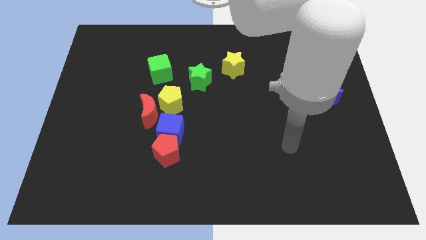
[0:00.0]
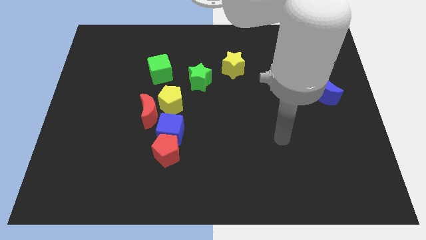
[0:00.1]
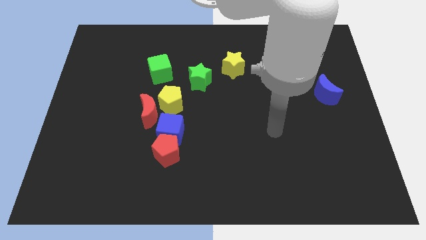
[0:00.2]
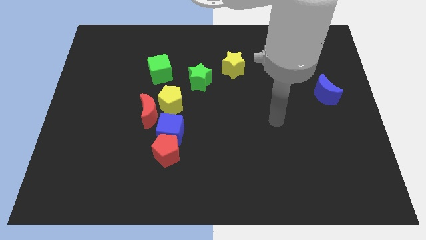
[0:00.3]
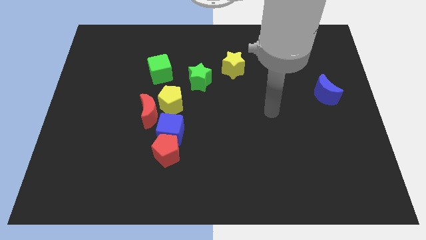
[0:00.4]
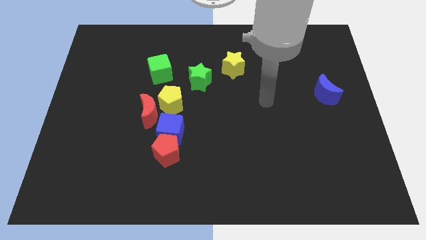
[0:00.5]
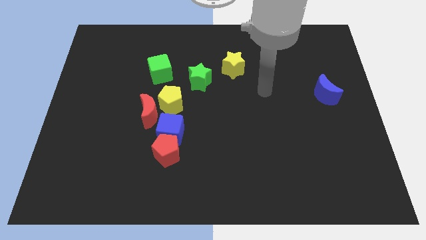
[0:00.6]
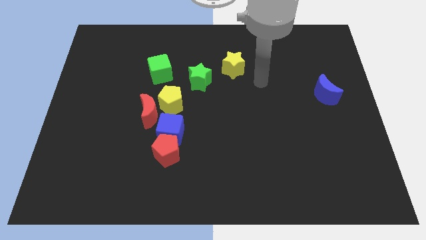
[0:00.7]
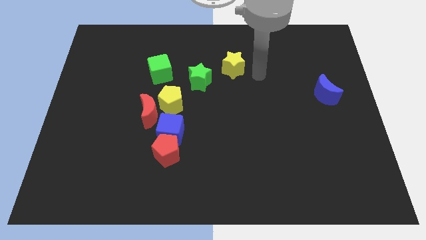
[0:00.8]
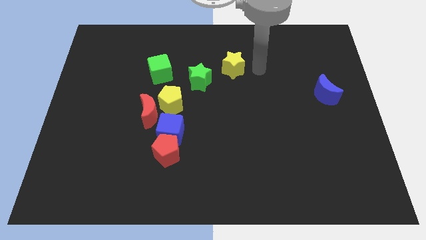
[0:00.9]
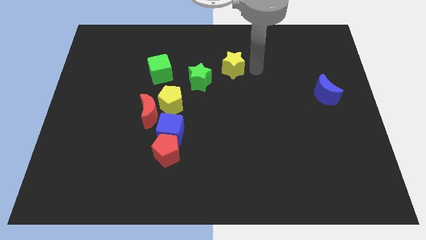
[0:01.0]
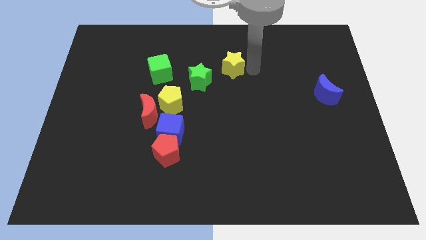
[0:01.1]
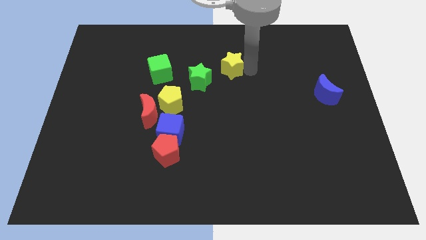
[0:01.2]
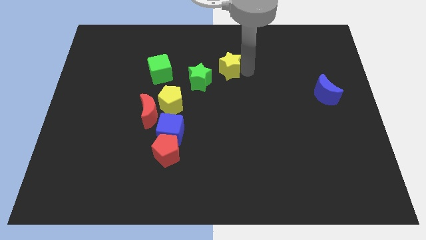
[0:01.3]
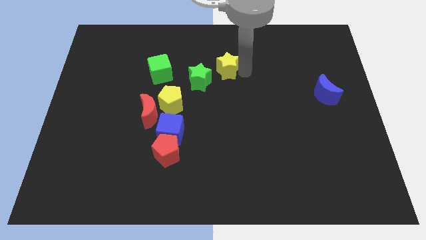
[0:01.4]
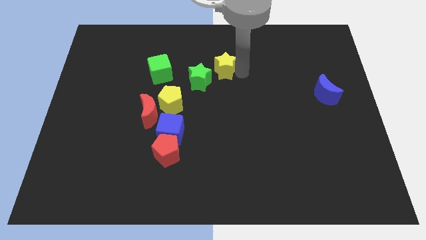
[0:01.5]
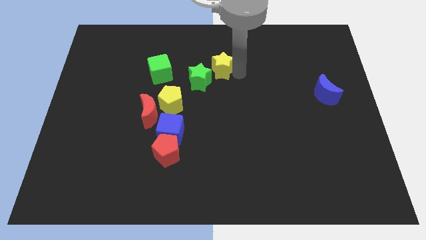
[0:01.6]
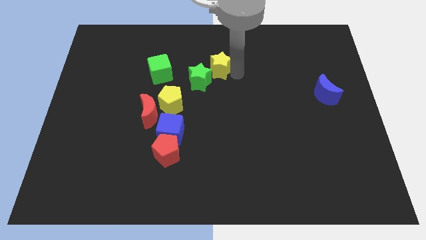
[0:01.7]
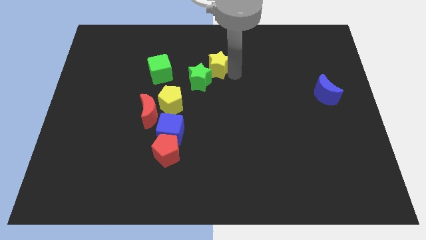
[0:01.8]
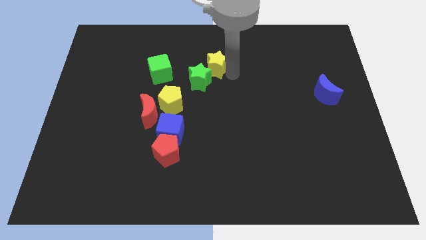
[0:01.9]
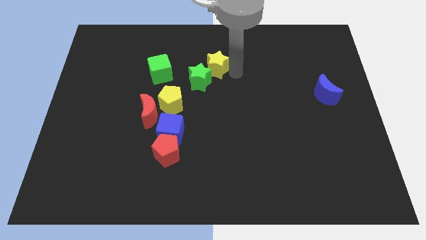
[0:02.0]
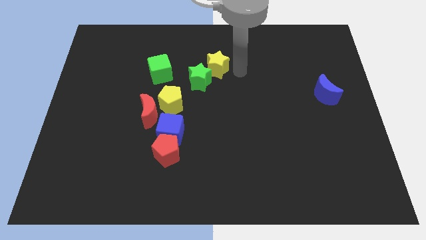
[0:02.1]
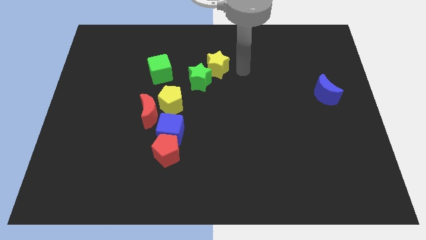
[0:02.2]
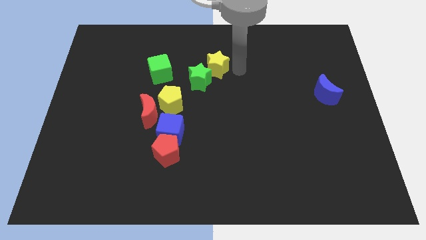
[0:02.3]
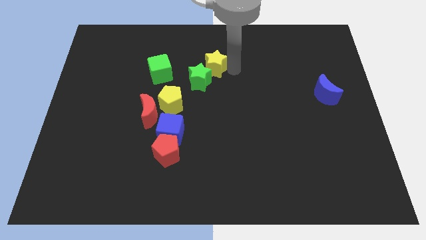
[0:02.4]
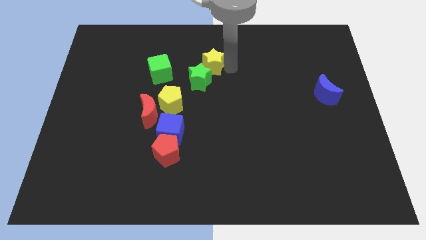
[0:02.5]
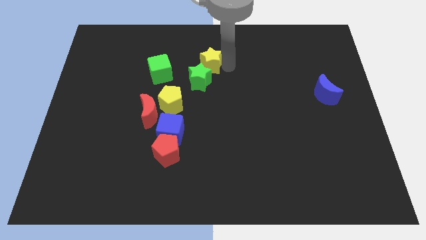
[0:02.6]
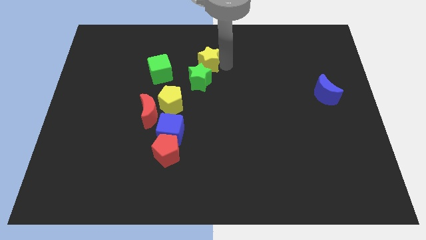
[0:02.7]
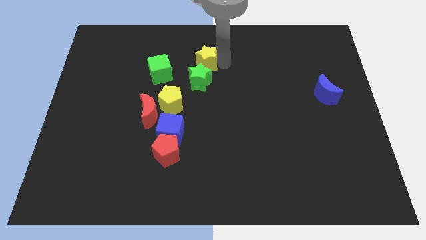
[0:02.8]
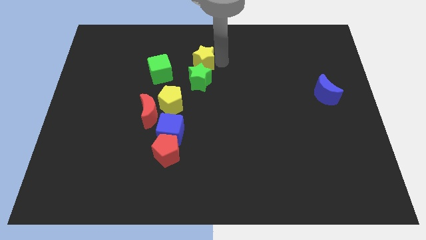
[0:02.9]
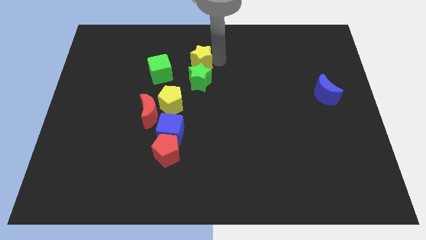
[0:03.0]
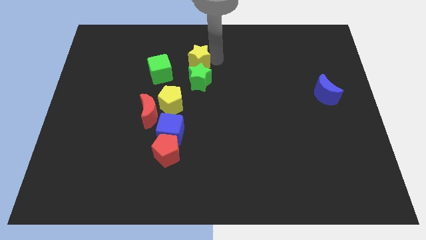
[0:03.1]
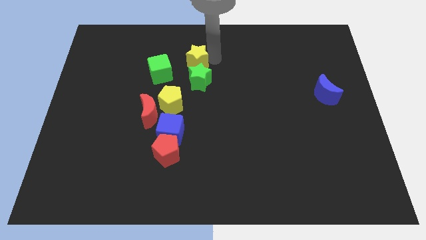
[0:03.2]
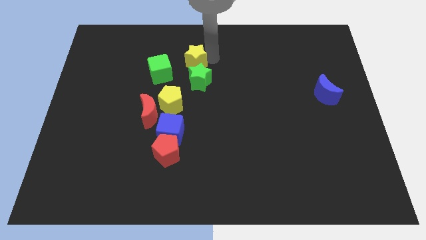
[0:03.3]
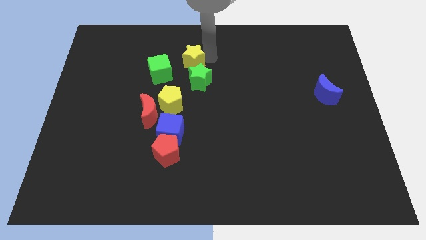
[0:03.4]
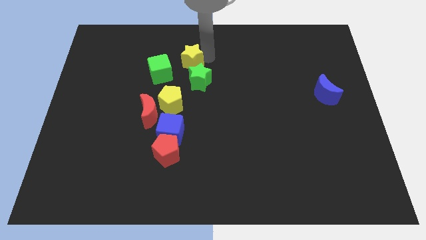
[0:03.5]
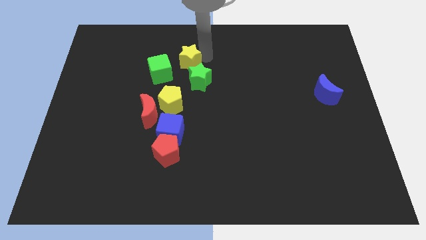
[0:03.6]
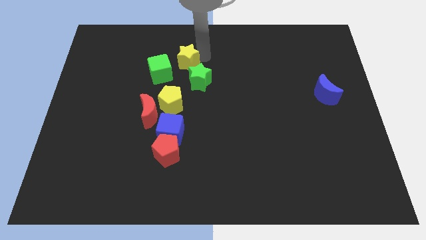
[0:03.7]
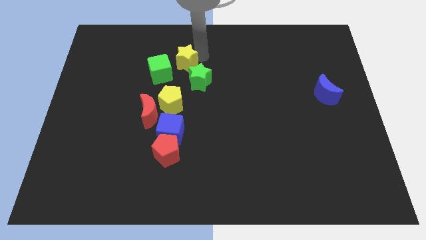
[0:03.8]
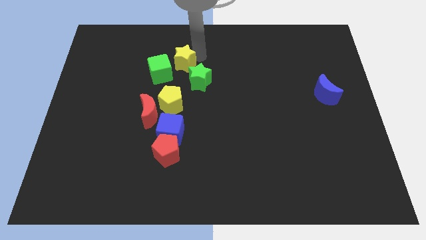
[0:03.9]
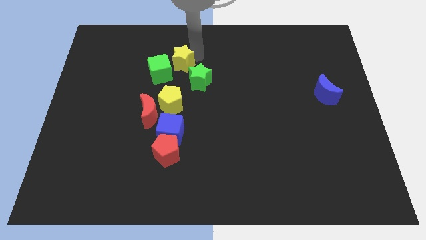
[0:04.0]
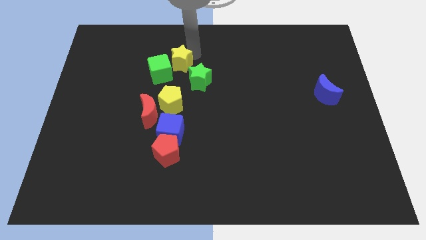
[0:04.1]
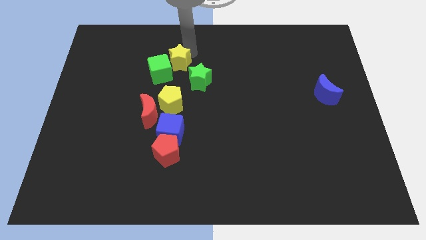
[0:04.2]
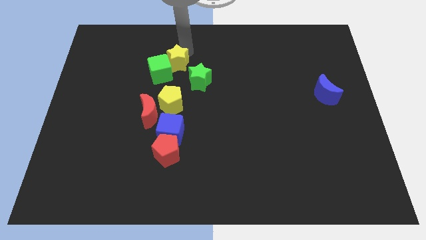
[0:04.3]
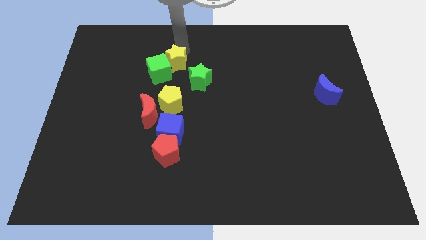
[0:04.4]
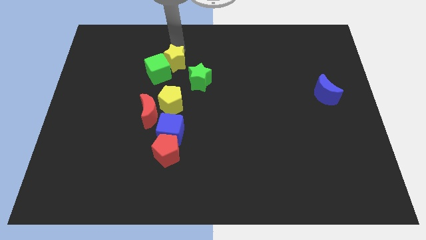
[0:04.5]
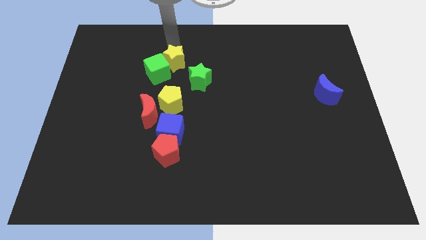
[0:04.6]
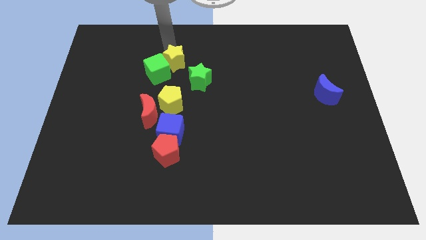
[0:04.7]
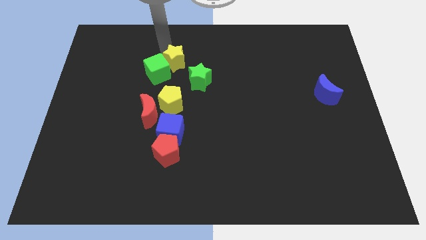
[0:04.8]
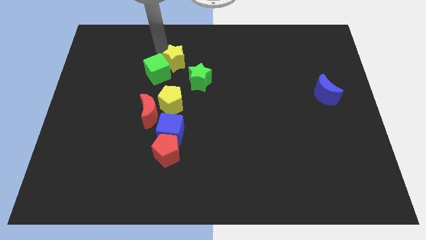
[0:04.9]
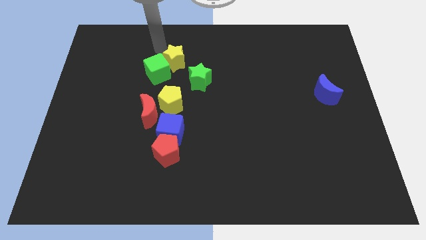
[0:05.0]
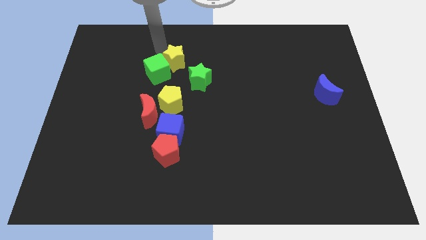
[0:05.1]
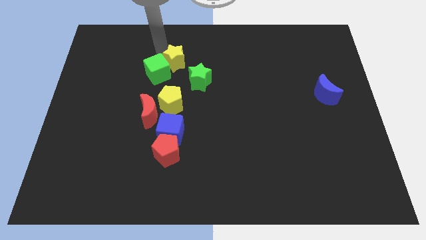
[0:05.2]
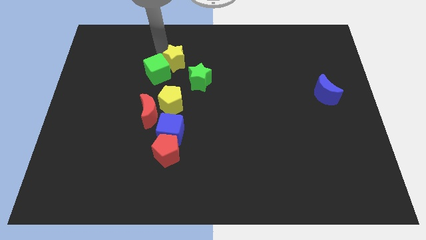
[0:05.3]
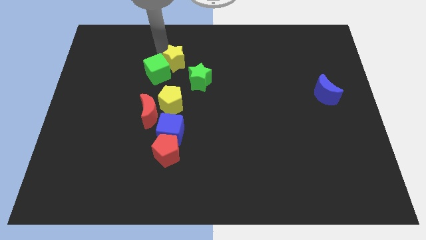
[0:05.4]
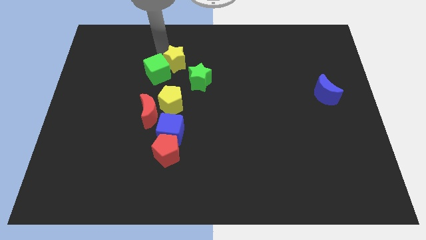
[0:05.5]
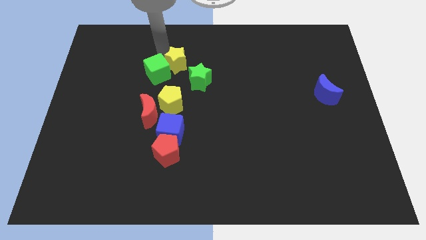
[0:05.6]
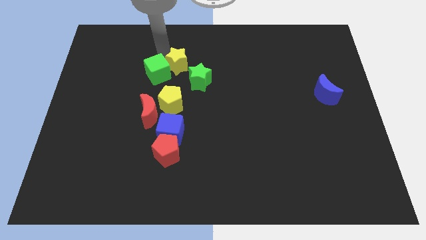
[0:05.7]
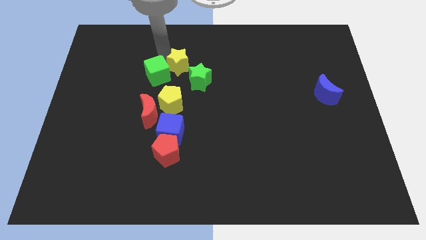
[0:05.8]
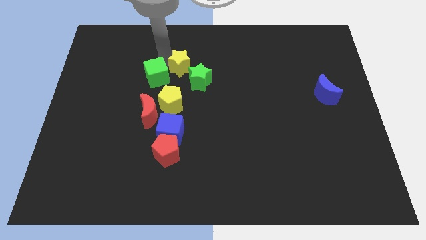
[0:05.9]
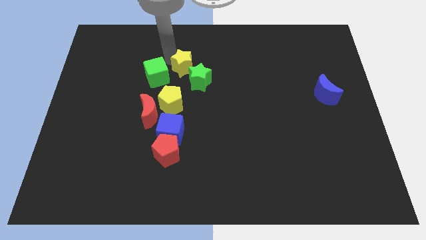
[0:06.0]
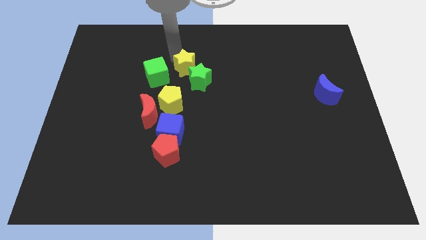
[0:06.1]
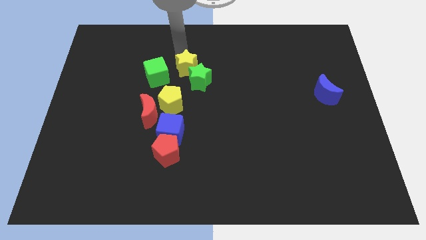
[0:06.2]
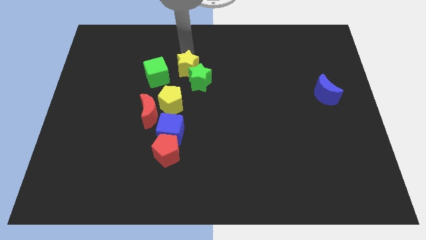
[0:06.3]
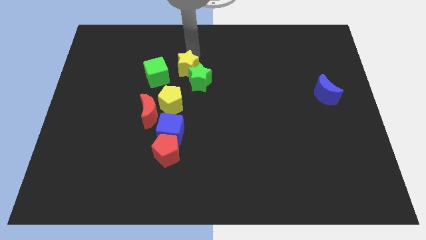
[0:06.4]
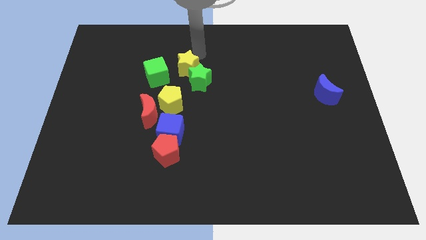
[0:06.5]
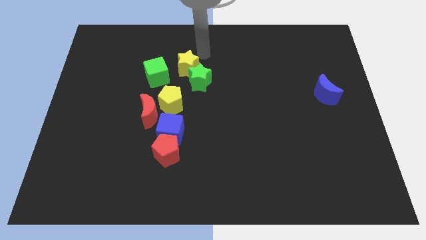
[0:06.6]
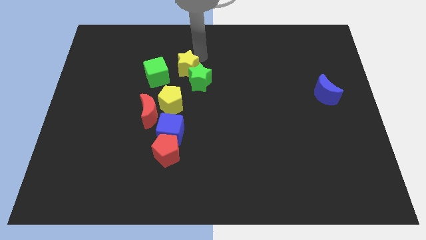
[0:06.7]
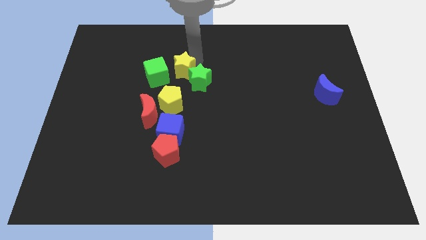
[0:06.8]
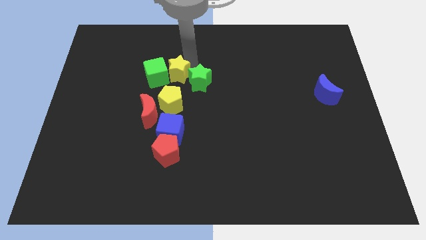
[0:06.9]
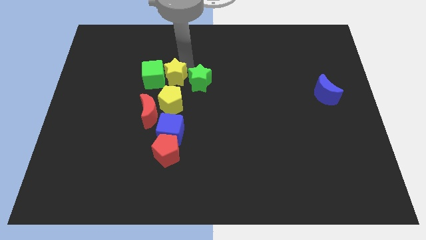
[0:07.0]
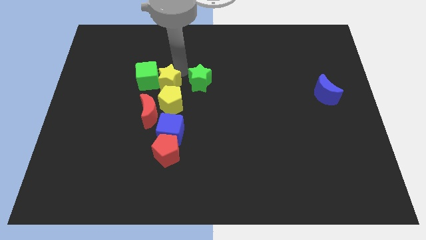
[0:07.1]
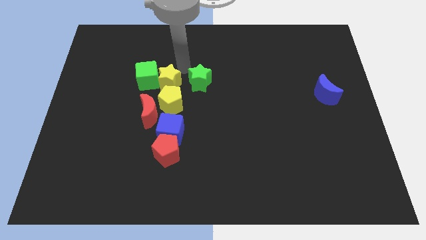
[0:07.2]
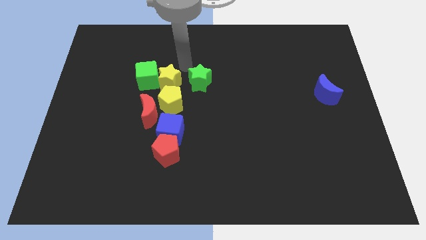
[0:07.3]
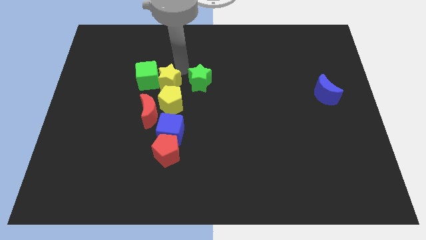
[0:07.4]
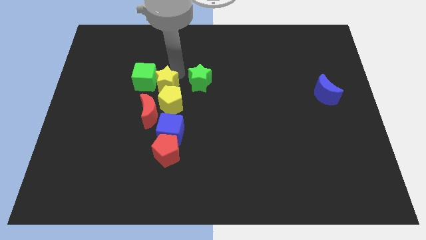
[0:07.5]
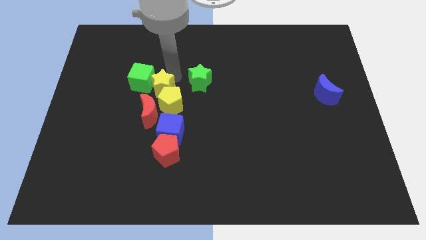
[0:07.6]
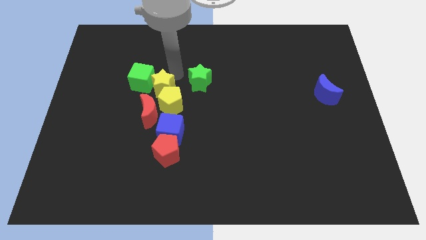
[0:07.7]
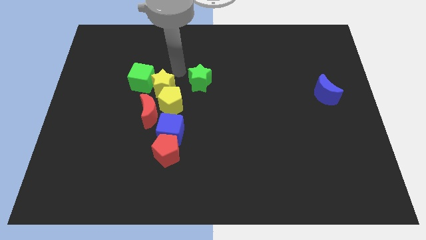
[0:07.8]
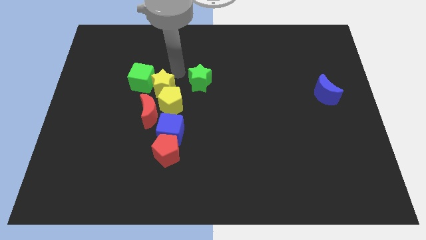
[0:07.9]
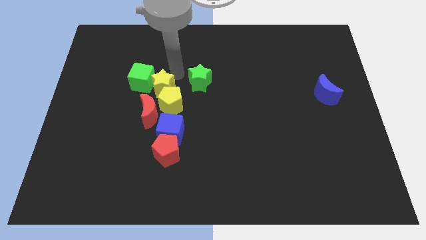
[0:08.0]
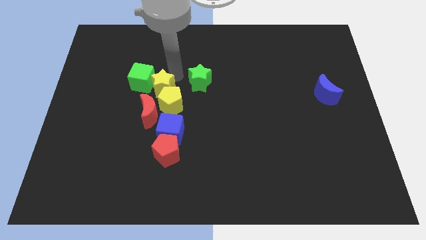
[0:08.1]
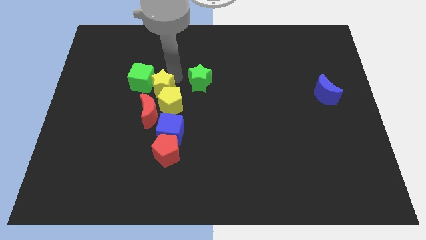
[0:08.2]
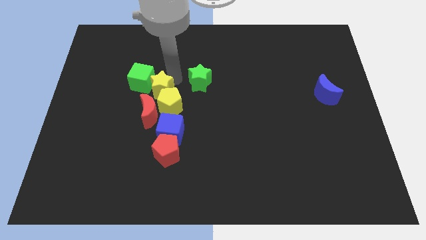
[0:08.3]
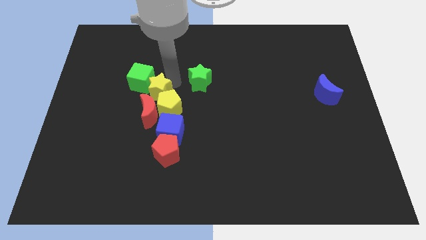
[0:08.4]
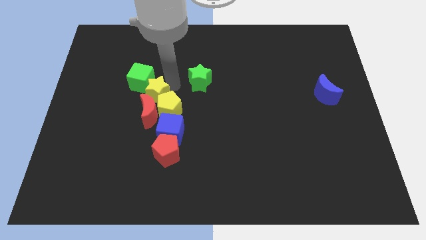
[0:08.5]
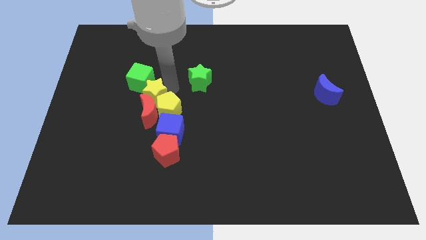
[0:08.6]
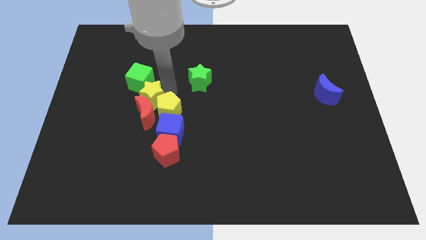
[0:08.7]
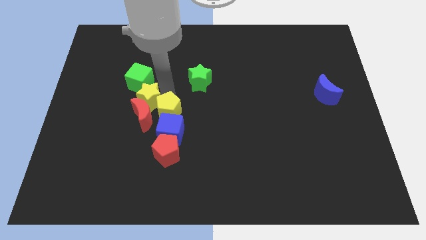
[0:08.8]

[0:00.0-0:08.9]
push the yellow star downwards and to the left
